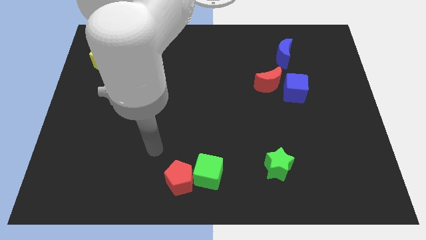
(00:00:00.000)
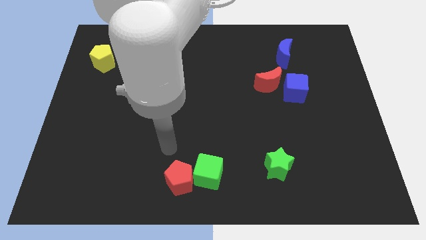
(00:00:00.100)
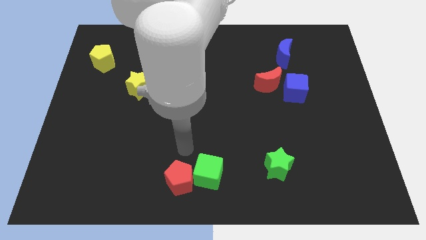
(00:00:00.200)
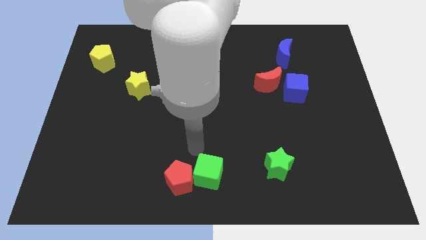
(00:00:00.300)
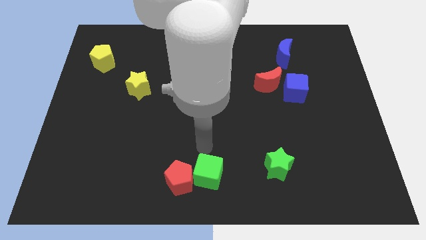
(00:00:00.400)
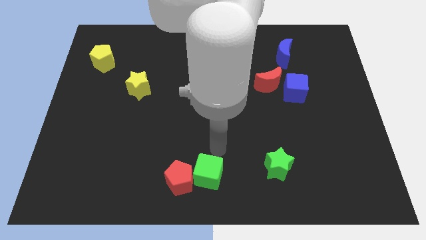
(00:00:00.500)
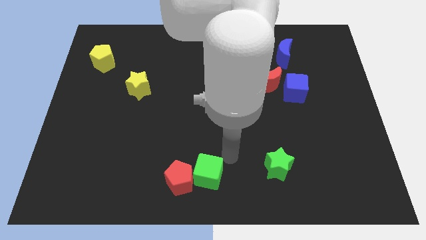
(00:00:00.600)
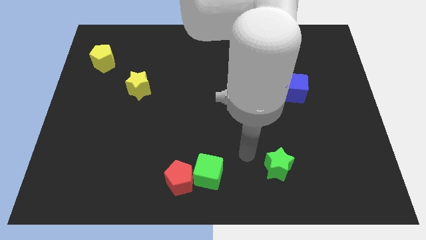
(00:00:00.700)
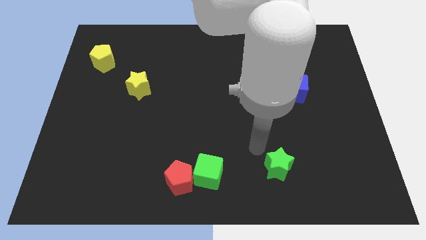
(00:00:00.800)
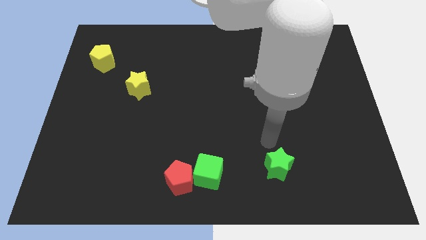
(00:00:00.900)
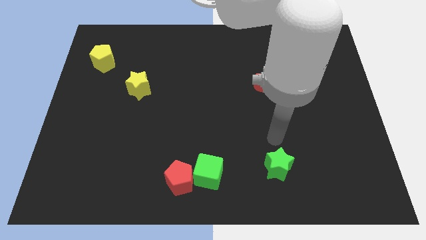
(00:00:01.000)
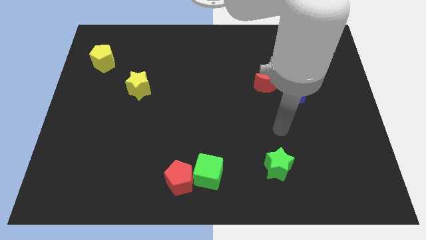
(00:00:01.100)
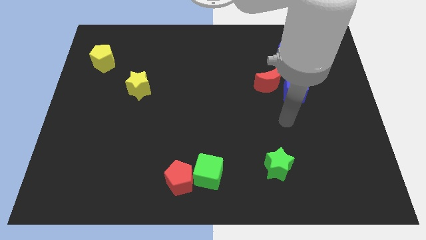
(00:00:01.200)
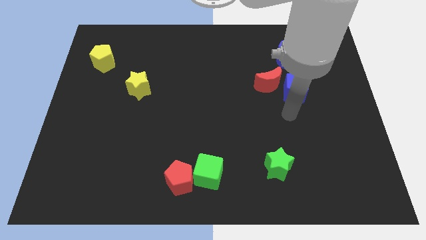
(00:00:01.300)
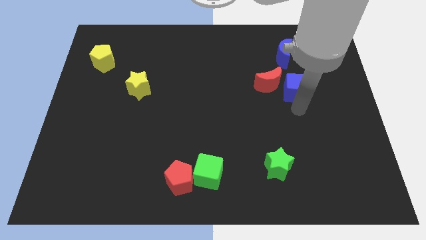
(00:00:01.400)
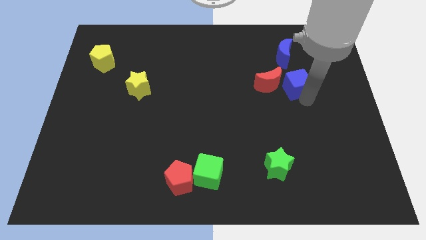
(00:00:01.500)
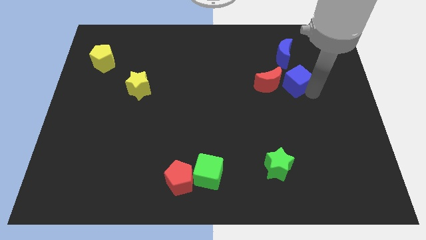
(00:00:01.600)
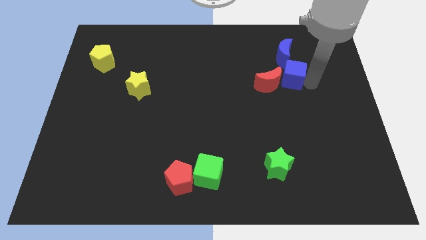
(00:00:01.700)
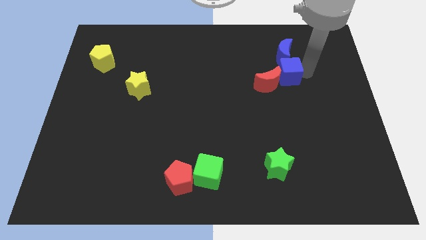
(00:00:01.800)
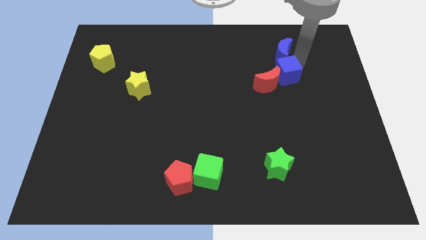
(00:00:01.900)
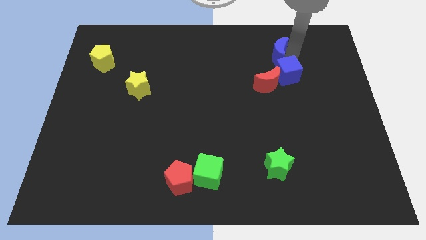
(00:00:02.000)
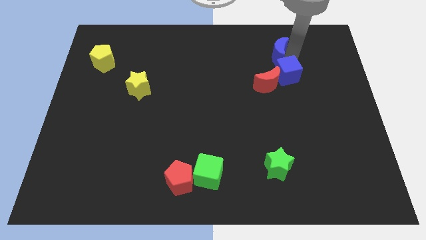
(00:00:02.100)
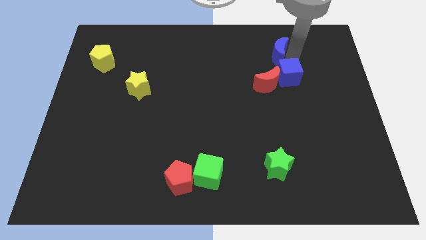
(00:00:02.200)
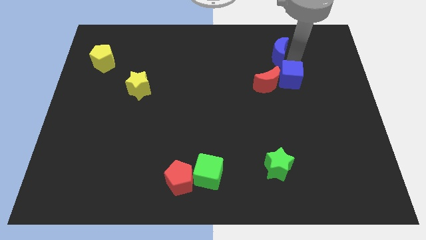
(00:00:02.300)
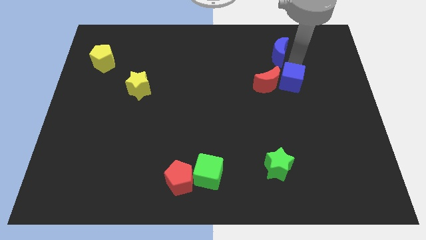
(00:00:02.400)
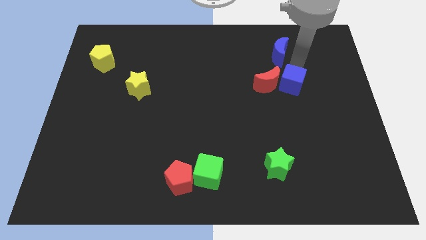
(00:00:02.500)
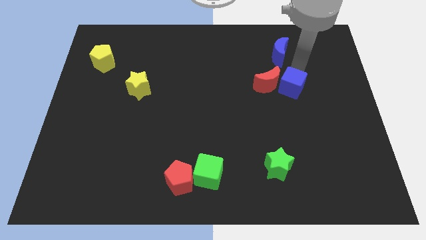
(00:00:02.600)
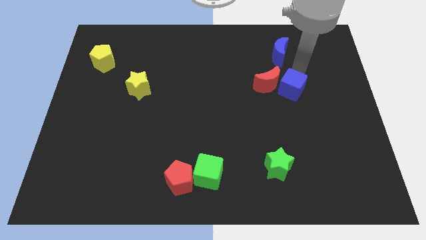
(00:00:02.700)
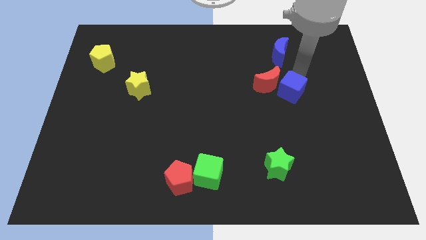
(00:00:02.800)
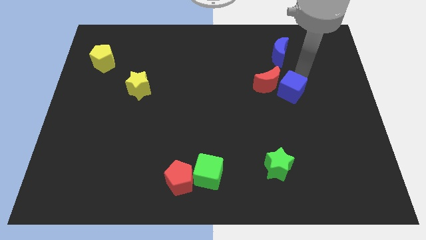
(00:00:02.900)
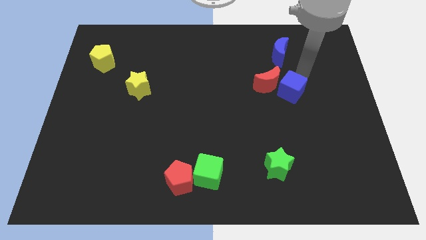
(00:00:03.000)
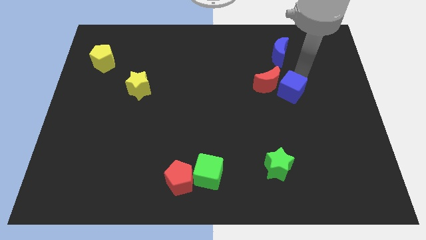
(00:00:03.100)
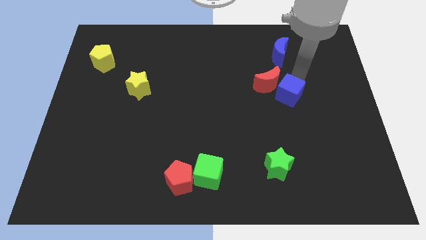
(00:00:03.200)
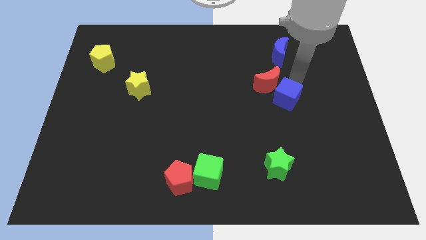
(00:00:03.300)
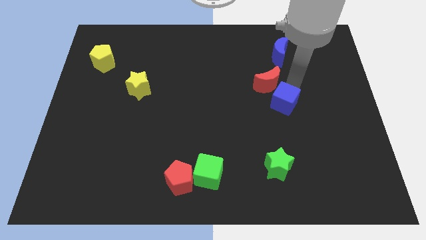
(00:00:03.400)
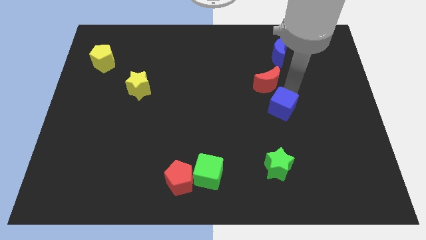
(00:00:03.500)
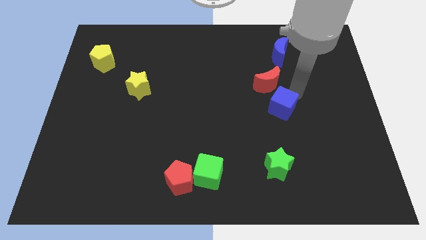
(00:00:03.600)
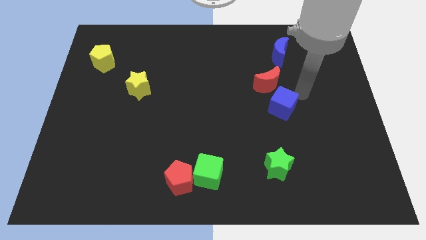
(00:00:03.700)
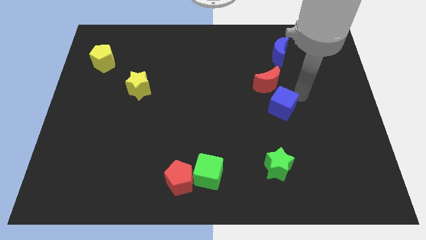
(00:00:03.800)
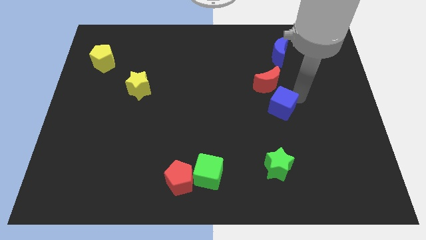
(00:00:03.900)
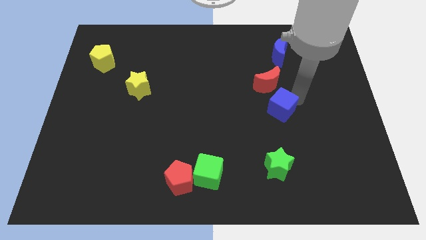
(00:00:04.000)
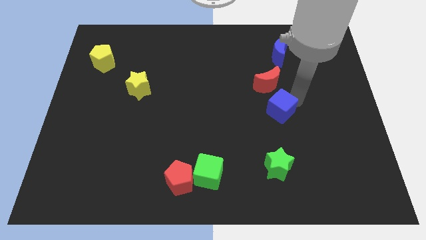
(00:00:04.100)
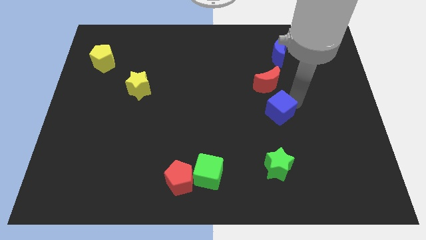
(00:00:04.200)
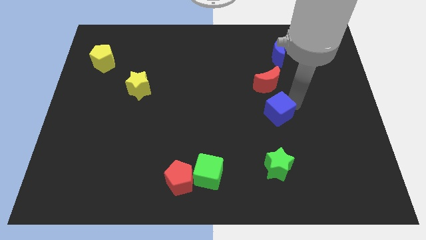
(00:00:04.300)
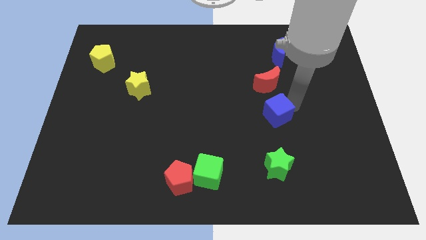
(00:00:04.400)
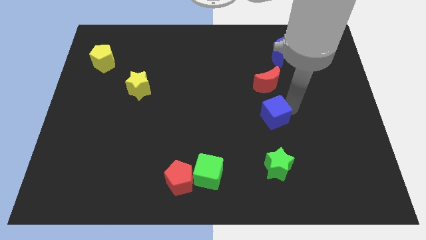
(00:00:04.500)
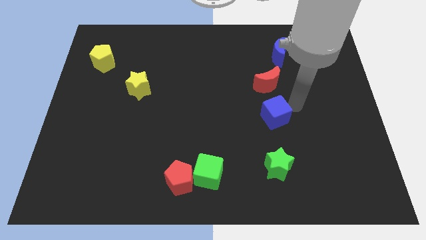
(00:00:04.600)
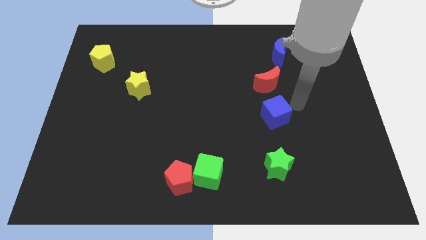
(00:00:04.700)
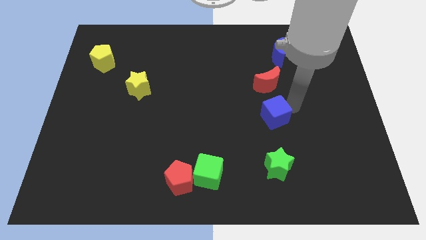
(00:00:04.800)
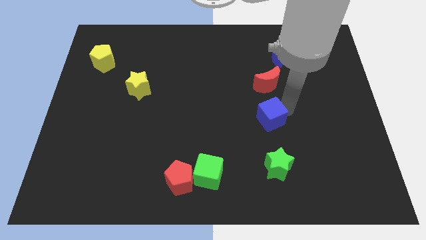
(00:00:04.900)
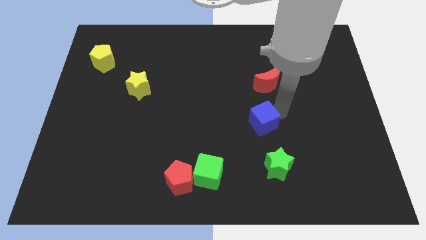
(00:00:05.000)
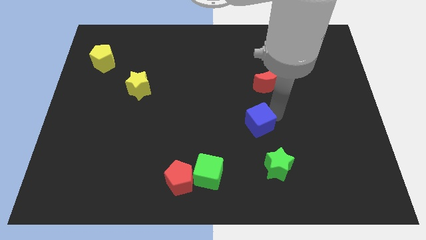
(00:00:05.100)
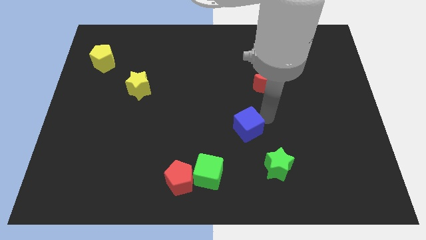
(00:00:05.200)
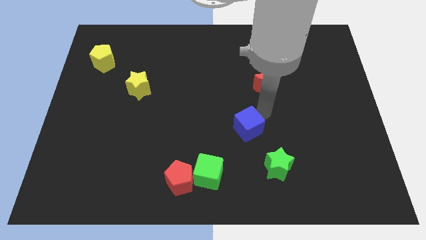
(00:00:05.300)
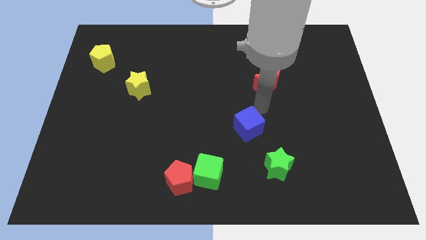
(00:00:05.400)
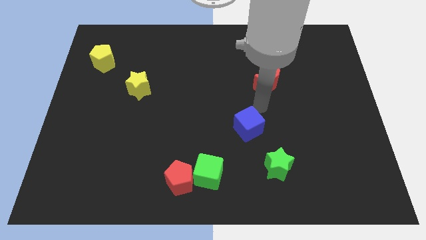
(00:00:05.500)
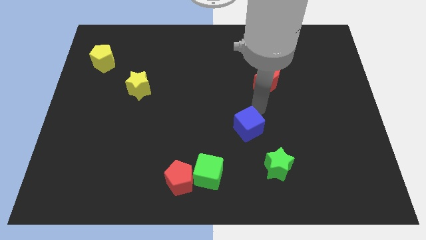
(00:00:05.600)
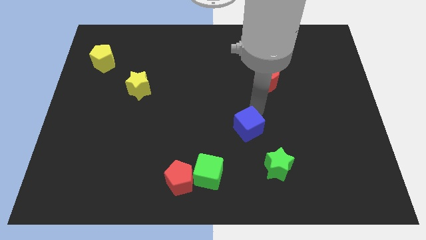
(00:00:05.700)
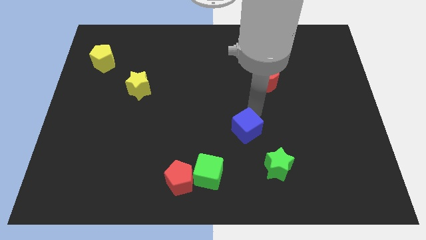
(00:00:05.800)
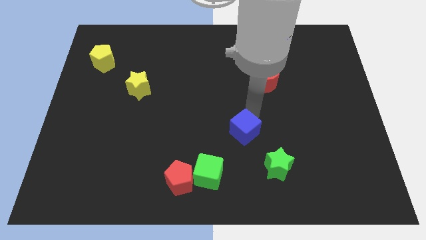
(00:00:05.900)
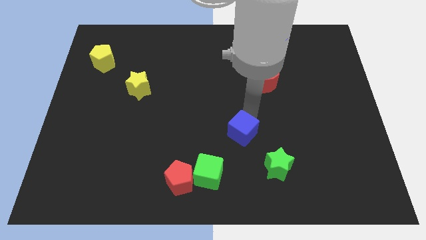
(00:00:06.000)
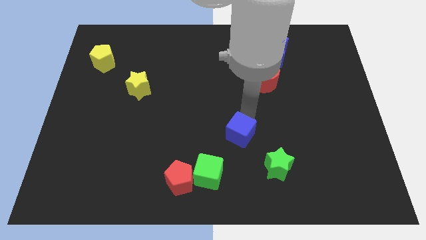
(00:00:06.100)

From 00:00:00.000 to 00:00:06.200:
move the blue cube to the top right of the green cube

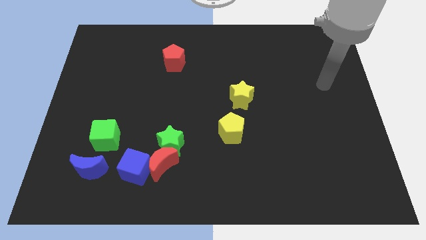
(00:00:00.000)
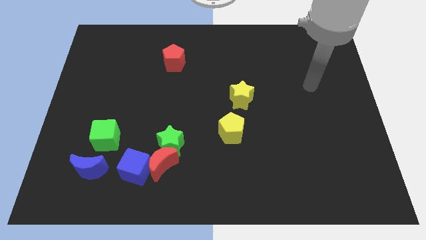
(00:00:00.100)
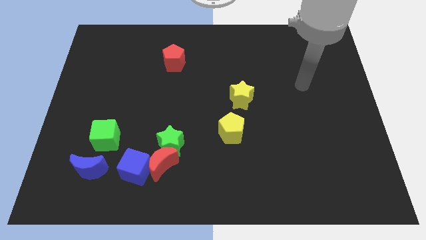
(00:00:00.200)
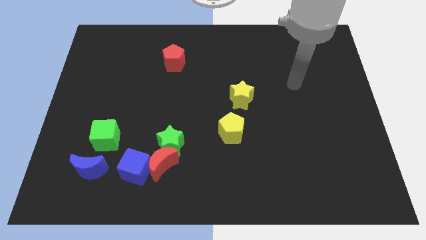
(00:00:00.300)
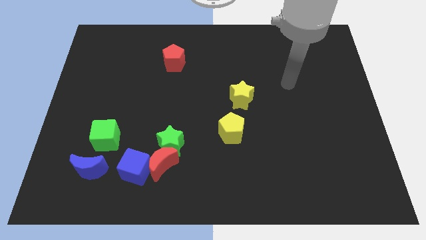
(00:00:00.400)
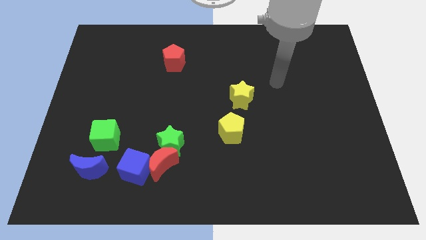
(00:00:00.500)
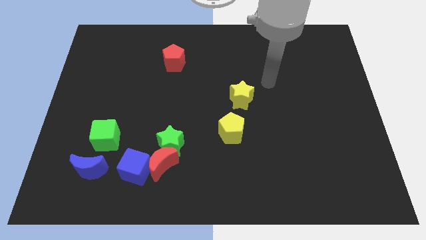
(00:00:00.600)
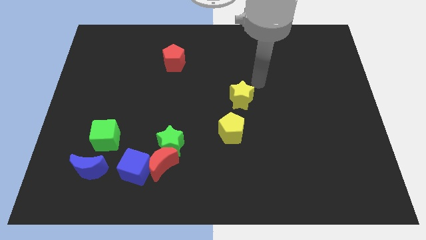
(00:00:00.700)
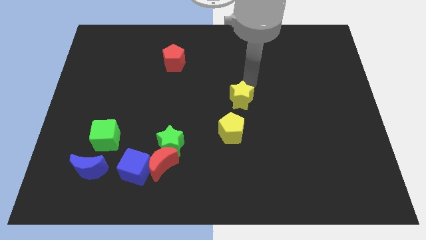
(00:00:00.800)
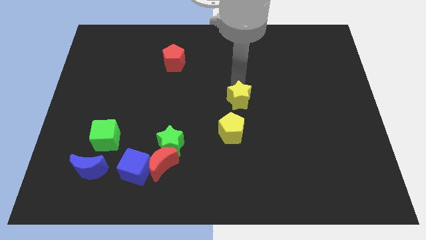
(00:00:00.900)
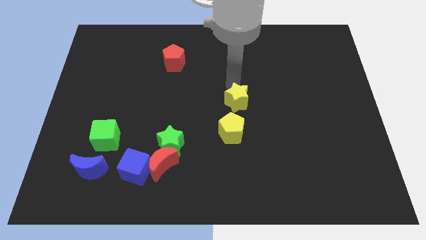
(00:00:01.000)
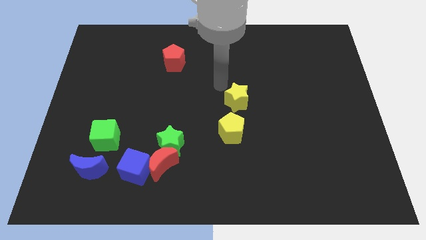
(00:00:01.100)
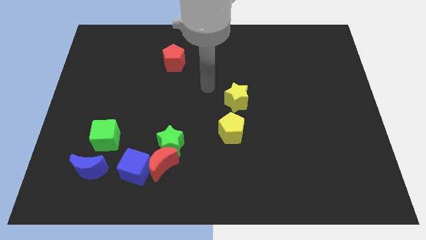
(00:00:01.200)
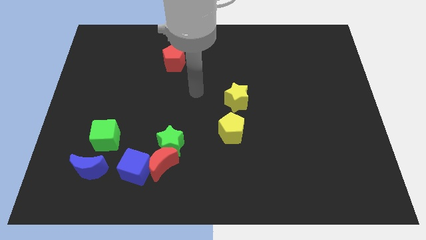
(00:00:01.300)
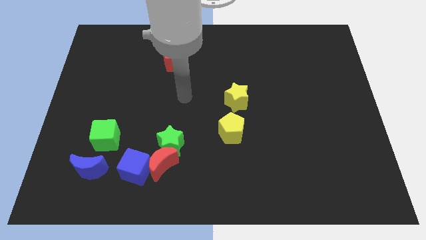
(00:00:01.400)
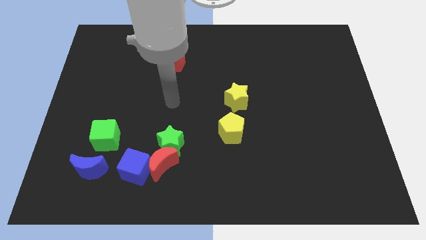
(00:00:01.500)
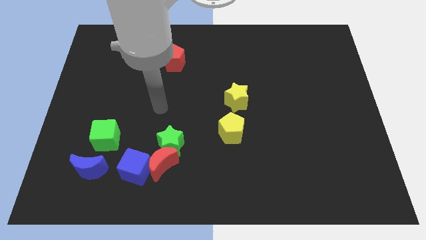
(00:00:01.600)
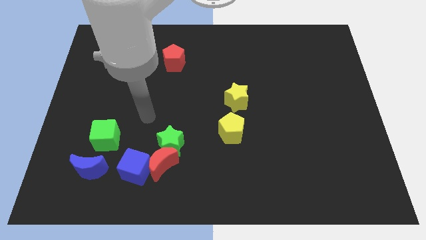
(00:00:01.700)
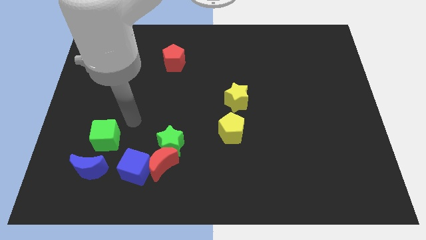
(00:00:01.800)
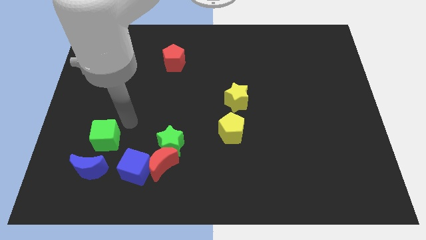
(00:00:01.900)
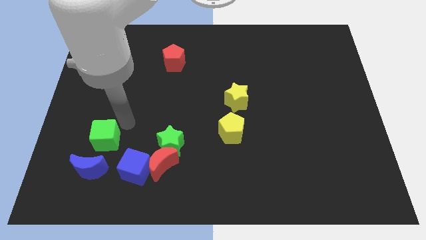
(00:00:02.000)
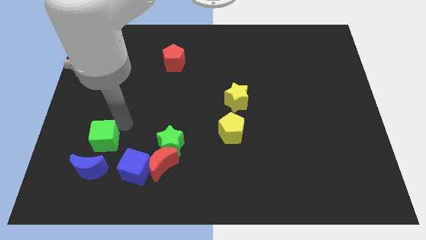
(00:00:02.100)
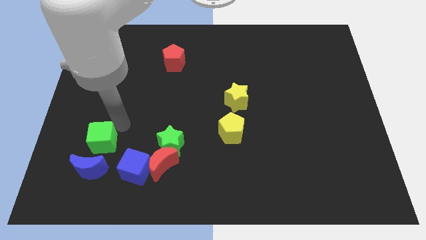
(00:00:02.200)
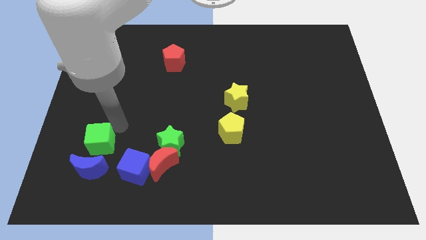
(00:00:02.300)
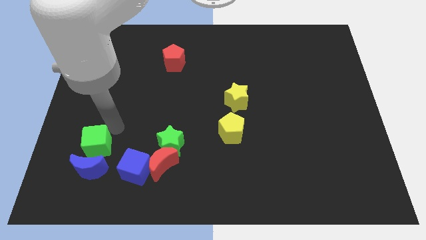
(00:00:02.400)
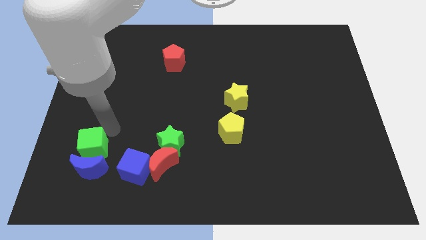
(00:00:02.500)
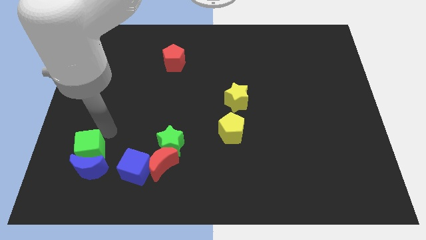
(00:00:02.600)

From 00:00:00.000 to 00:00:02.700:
move the green cube left of the blue cube
